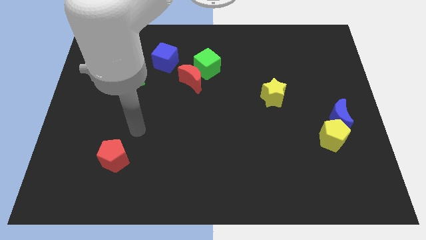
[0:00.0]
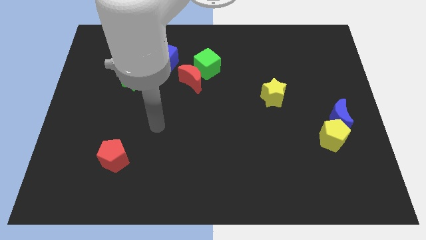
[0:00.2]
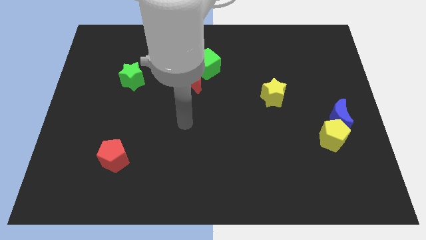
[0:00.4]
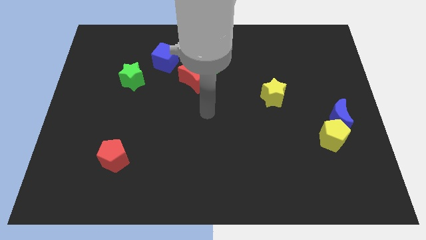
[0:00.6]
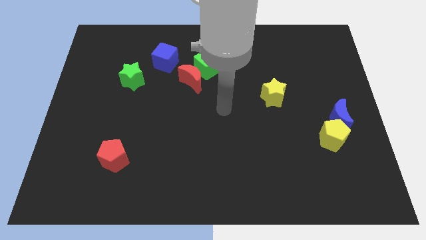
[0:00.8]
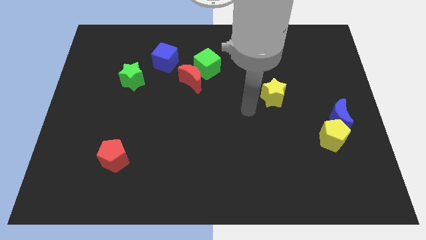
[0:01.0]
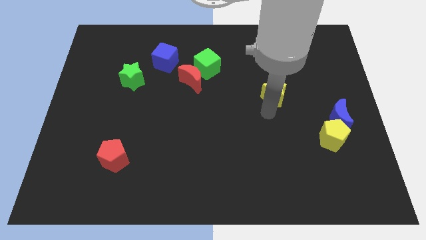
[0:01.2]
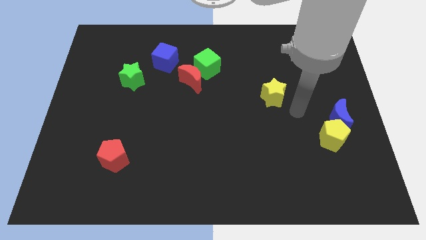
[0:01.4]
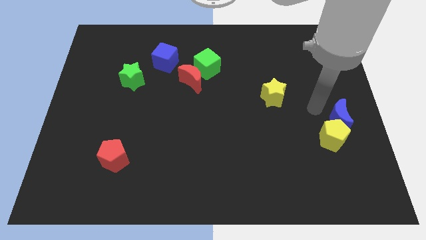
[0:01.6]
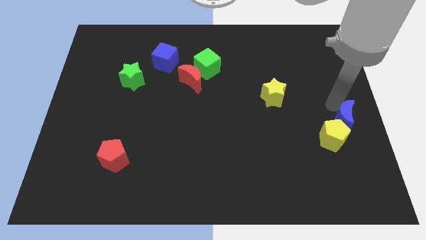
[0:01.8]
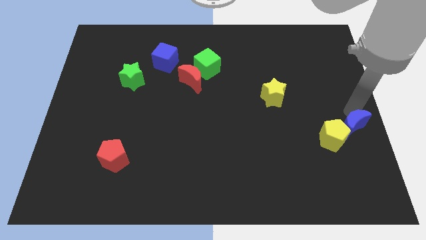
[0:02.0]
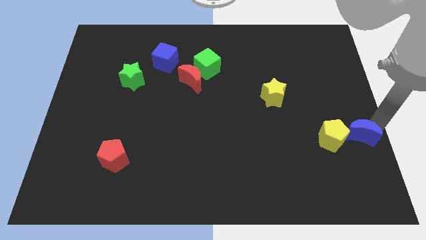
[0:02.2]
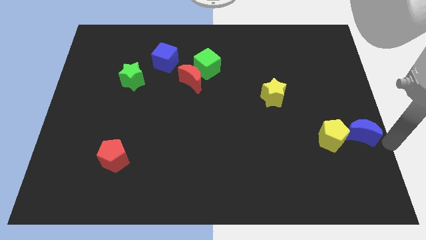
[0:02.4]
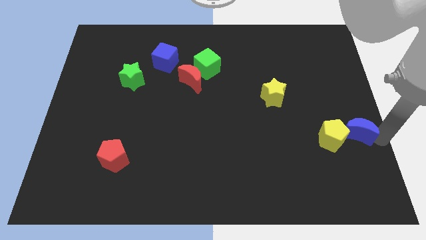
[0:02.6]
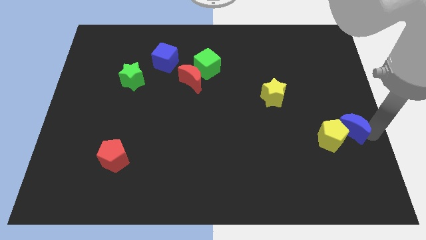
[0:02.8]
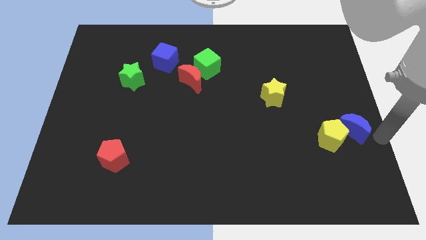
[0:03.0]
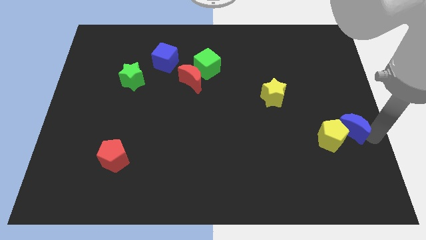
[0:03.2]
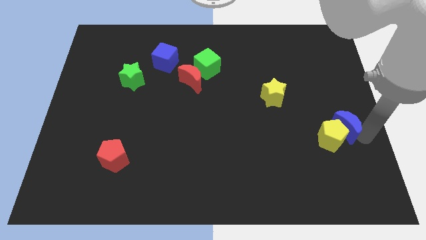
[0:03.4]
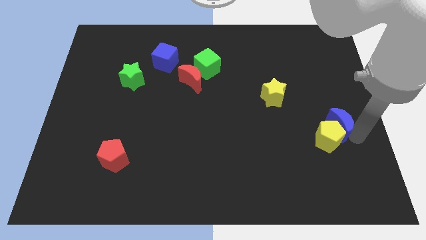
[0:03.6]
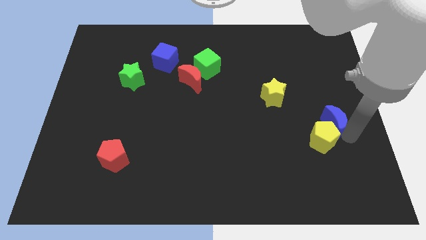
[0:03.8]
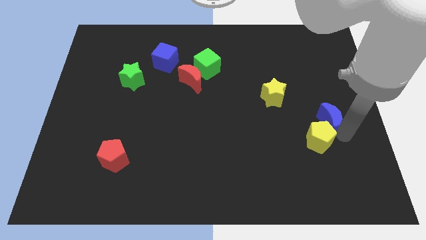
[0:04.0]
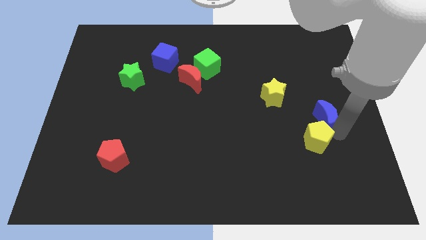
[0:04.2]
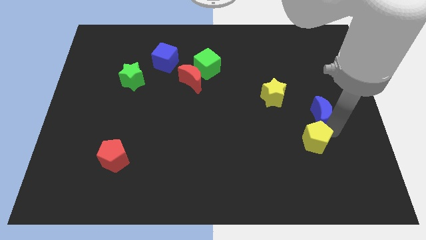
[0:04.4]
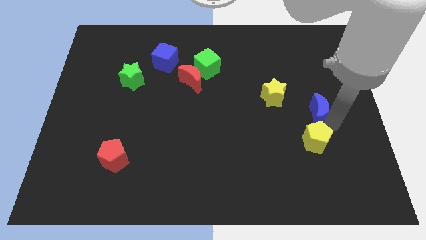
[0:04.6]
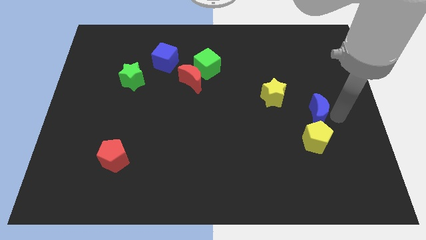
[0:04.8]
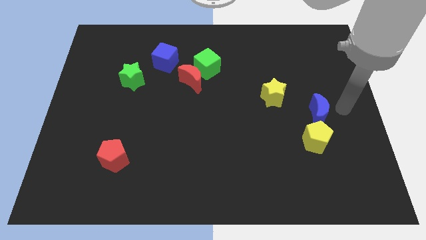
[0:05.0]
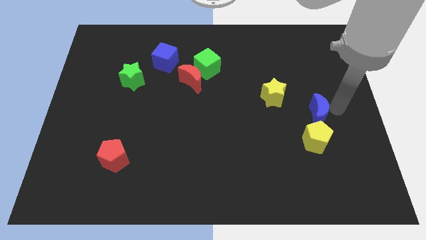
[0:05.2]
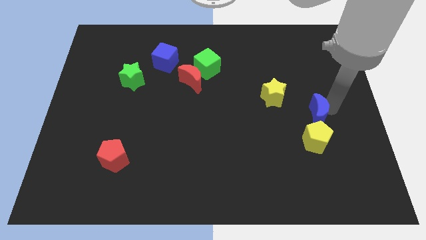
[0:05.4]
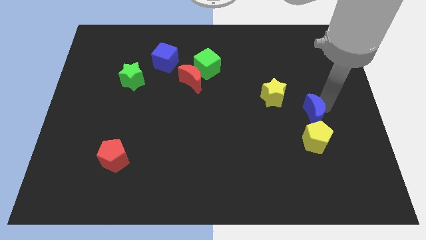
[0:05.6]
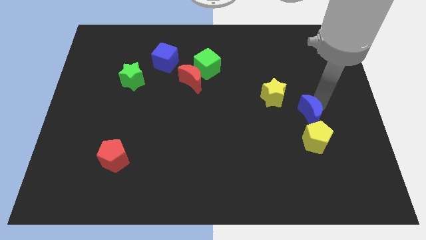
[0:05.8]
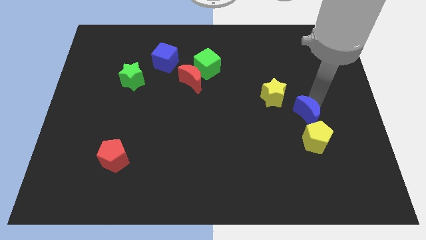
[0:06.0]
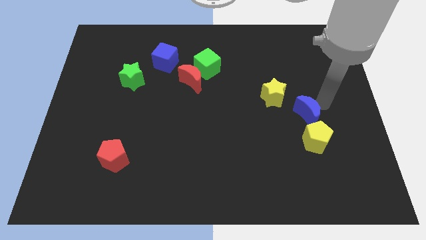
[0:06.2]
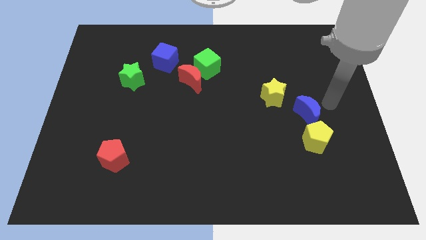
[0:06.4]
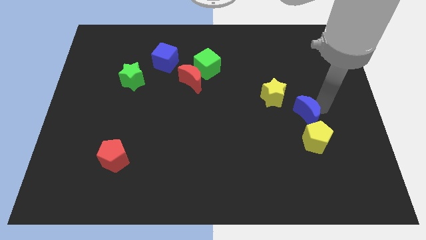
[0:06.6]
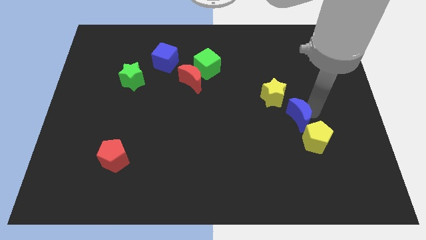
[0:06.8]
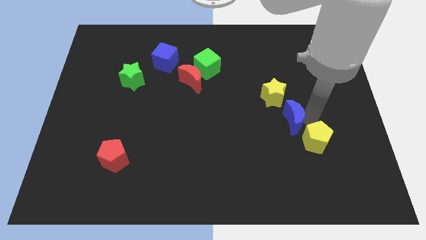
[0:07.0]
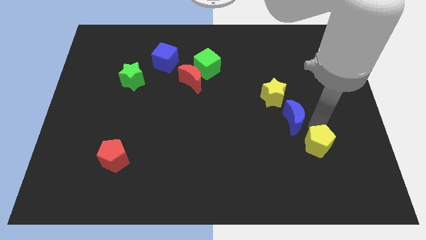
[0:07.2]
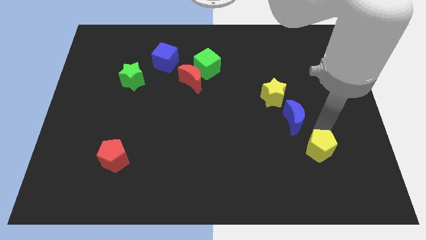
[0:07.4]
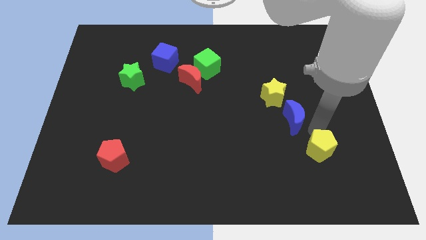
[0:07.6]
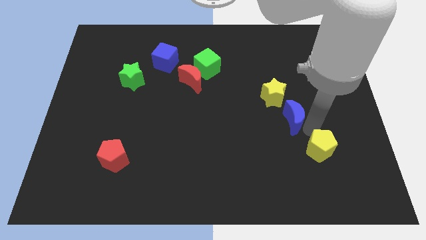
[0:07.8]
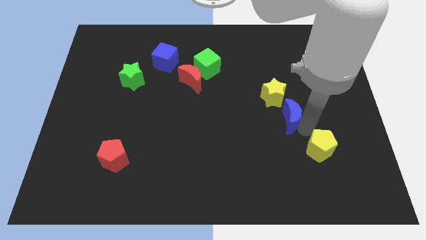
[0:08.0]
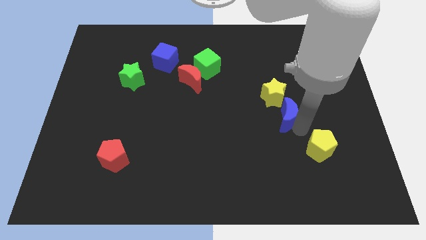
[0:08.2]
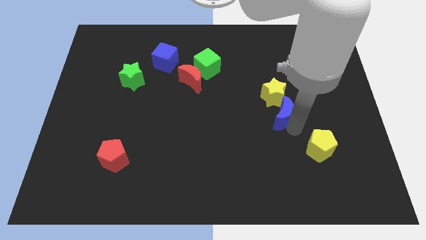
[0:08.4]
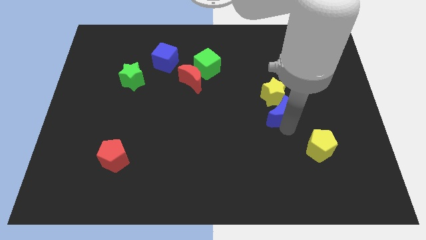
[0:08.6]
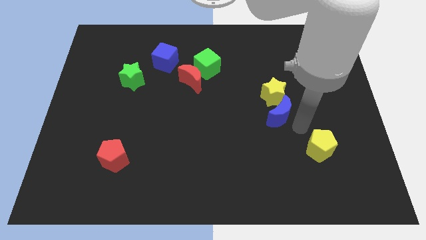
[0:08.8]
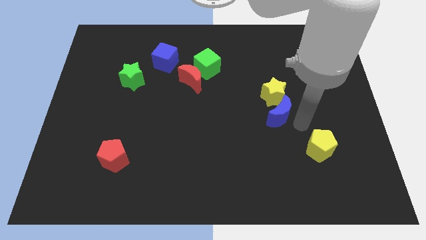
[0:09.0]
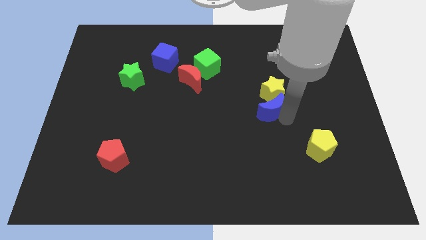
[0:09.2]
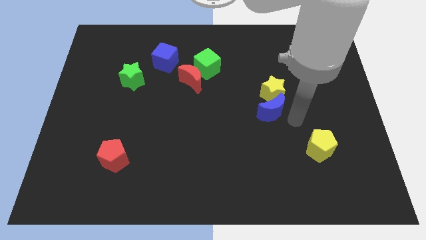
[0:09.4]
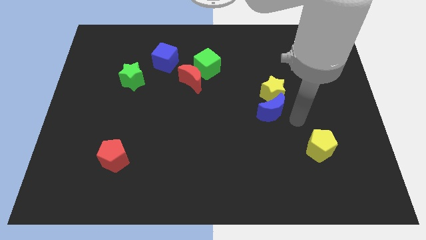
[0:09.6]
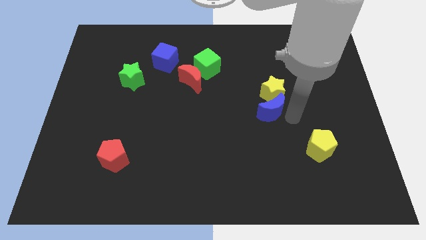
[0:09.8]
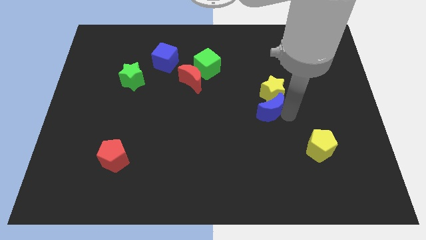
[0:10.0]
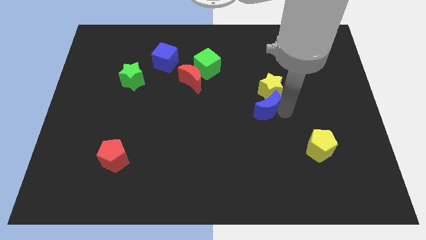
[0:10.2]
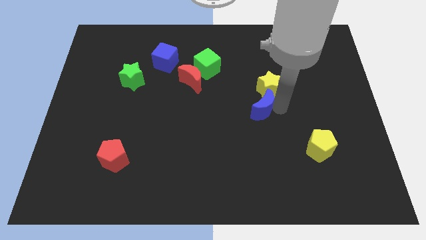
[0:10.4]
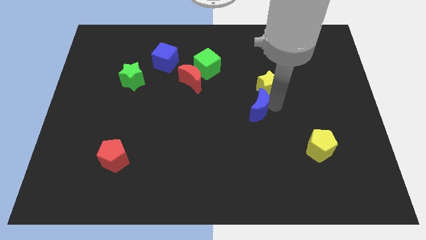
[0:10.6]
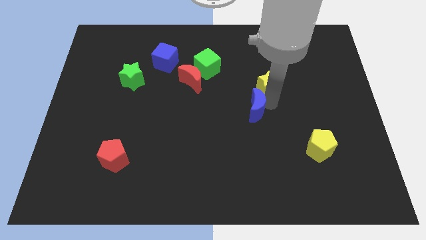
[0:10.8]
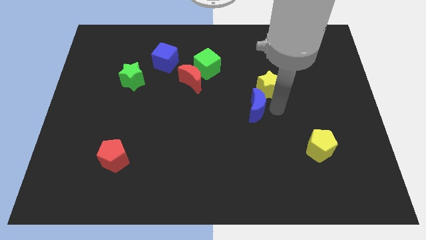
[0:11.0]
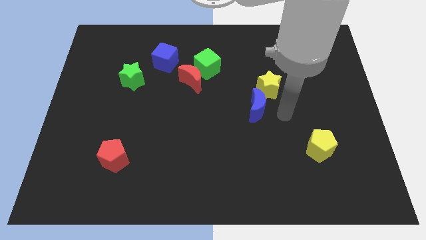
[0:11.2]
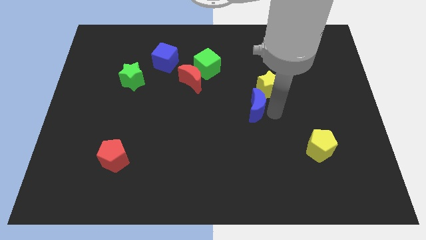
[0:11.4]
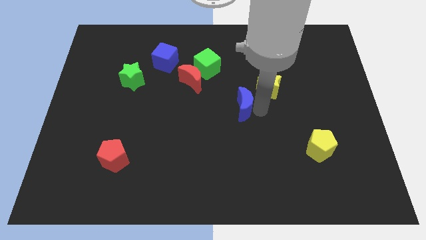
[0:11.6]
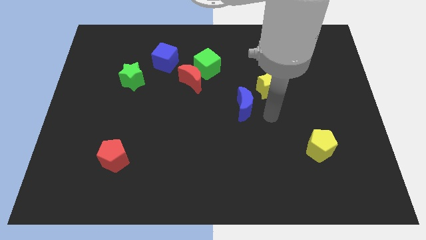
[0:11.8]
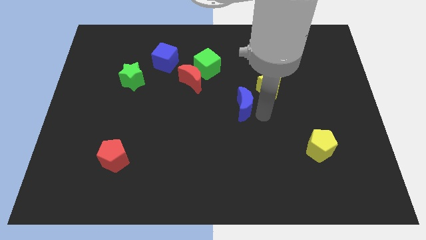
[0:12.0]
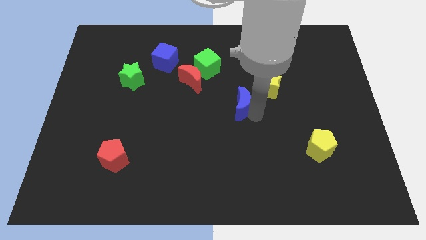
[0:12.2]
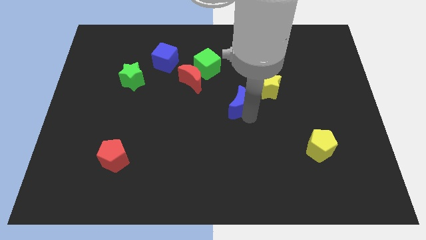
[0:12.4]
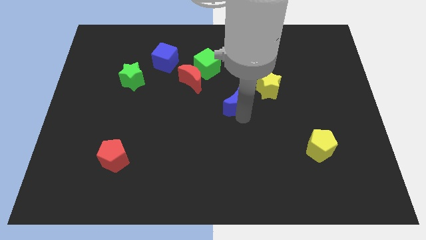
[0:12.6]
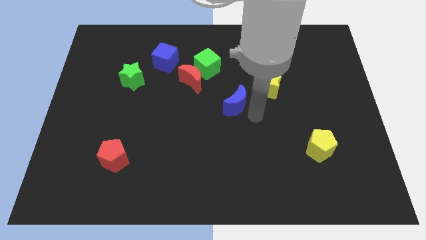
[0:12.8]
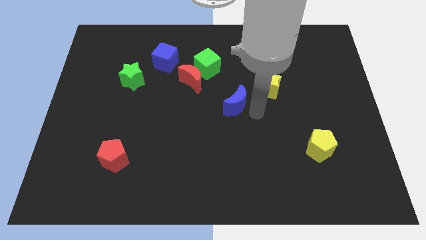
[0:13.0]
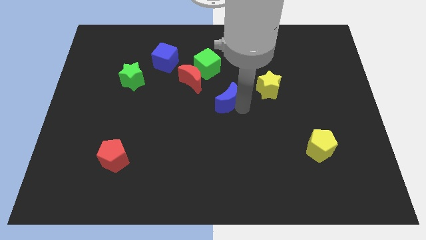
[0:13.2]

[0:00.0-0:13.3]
push the blue moon to the bottom right side of the red moon

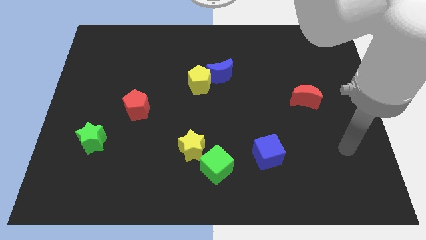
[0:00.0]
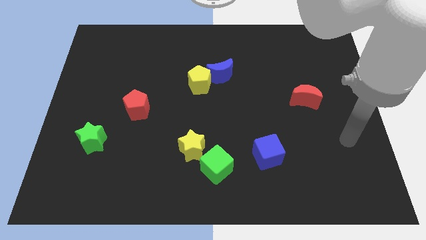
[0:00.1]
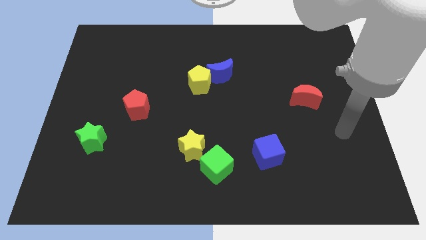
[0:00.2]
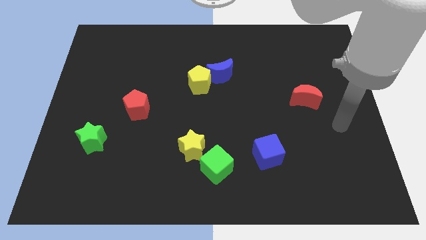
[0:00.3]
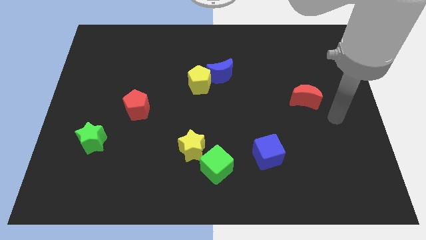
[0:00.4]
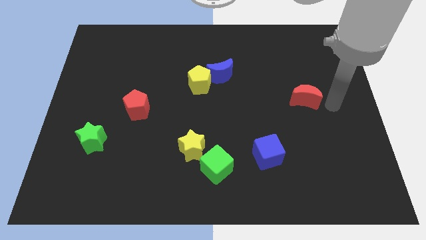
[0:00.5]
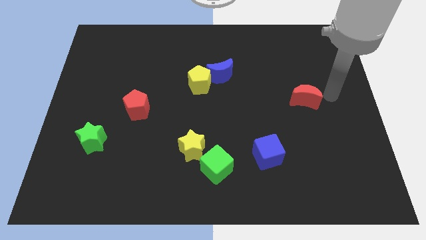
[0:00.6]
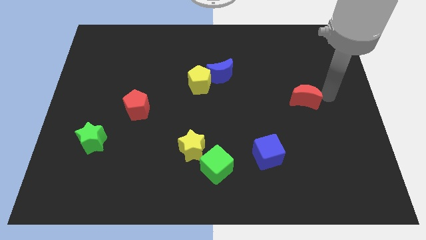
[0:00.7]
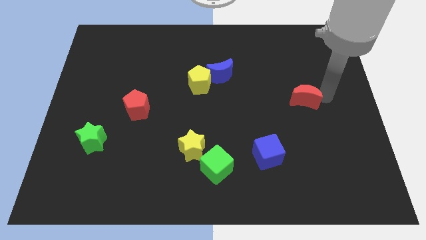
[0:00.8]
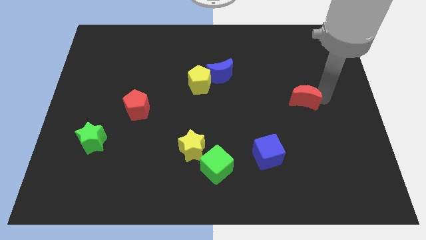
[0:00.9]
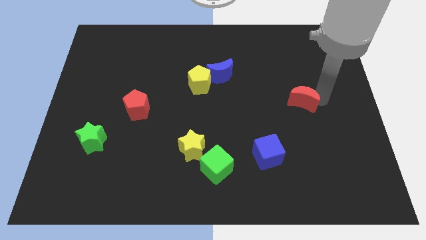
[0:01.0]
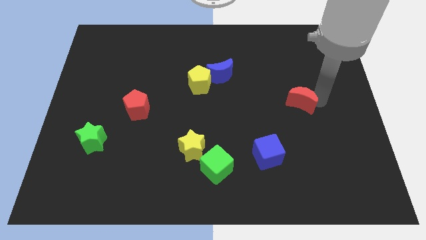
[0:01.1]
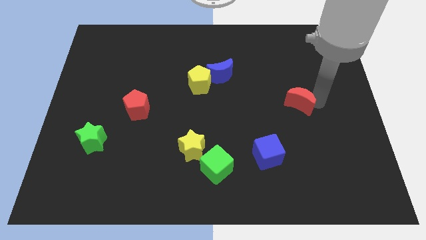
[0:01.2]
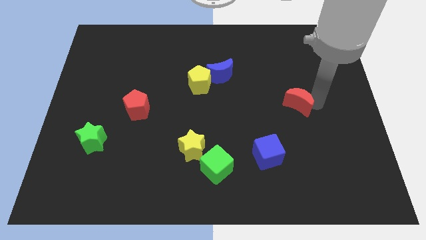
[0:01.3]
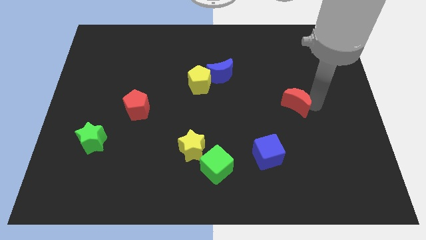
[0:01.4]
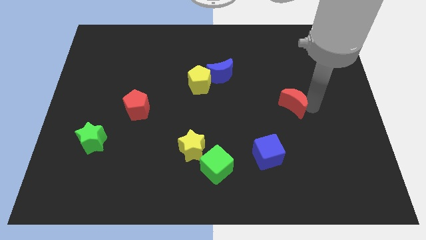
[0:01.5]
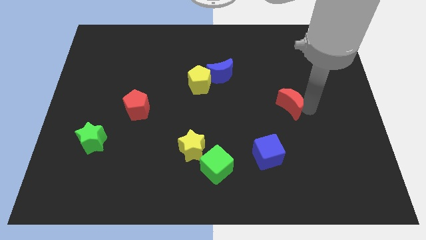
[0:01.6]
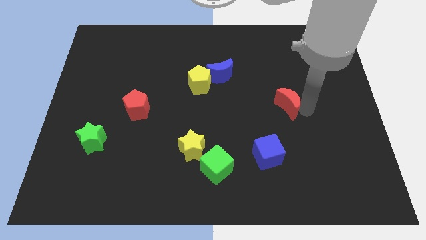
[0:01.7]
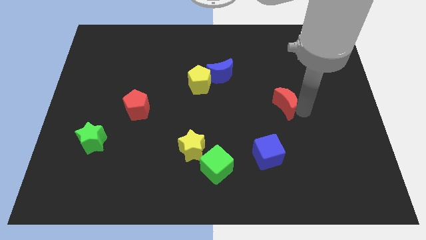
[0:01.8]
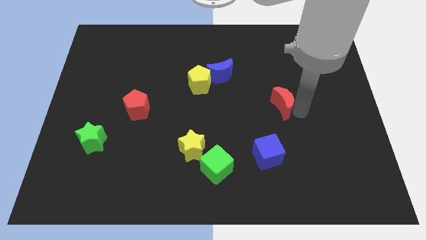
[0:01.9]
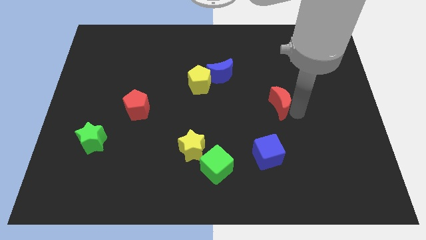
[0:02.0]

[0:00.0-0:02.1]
put the red moon to the top of the blue cube
